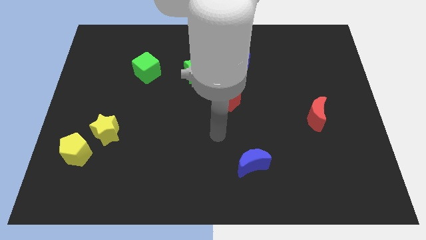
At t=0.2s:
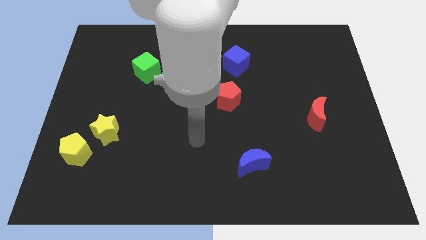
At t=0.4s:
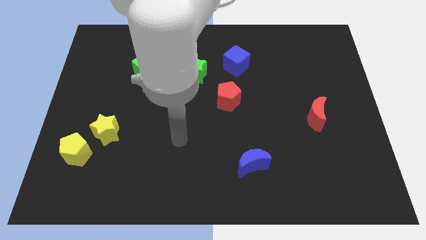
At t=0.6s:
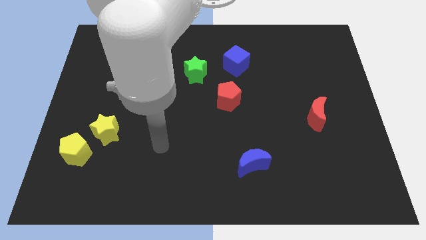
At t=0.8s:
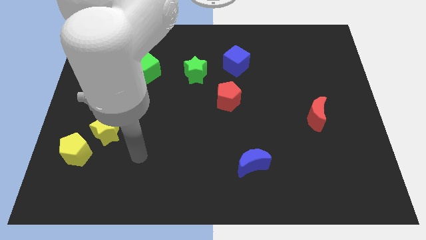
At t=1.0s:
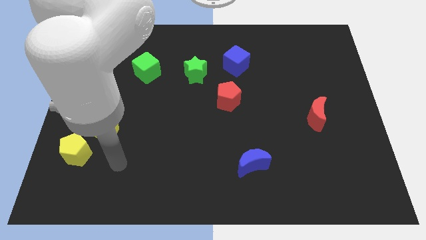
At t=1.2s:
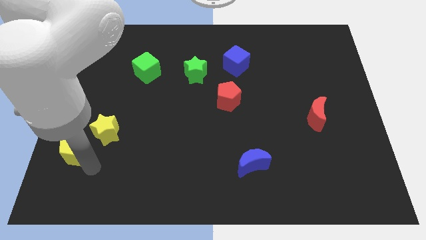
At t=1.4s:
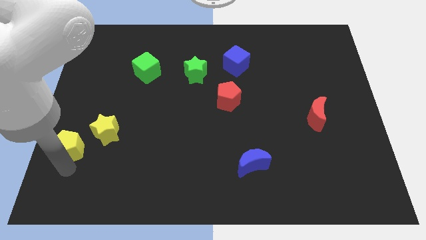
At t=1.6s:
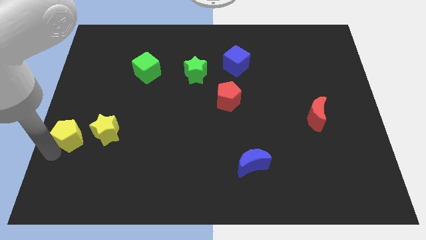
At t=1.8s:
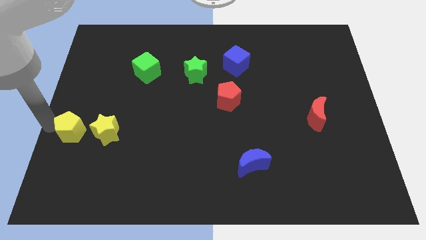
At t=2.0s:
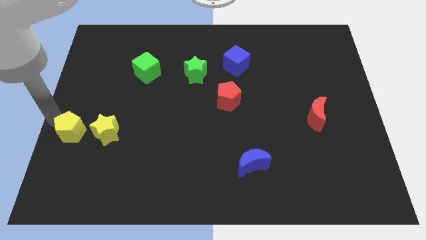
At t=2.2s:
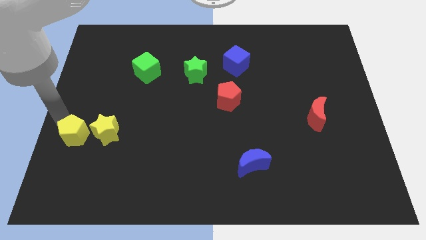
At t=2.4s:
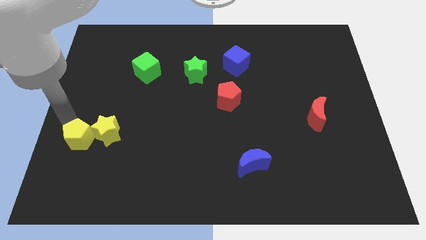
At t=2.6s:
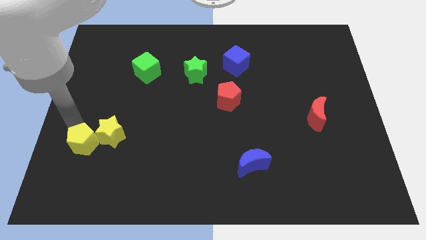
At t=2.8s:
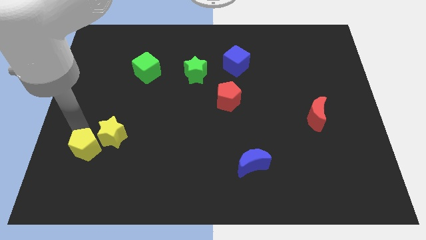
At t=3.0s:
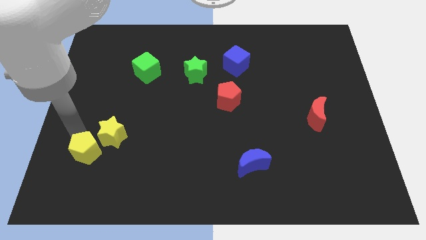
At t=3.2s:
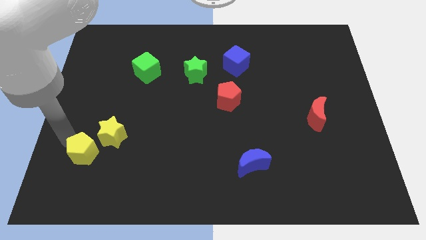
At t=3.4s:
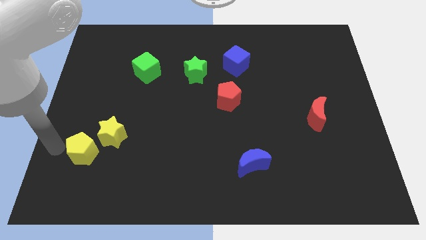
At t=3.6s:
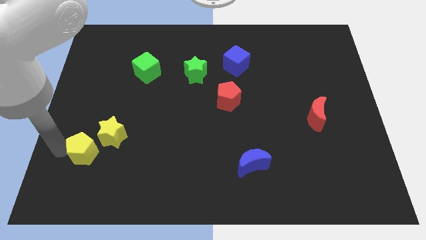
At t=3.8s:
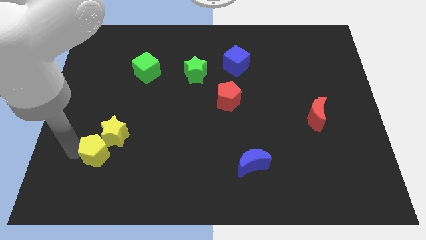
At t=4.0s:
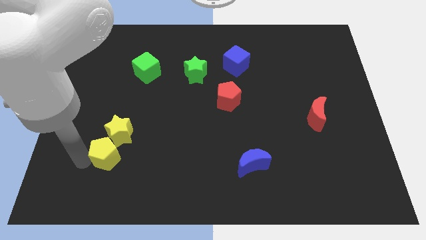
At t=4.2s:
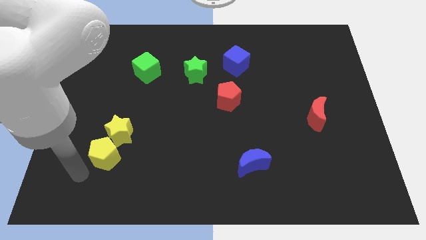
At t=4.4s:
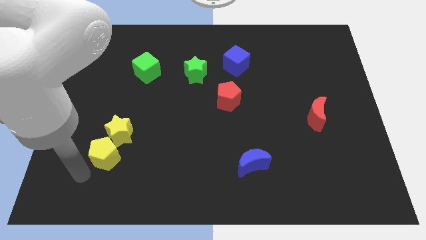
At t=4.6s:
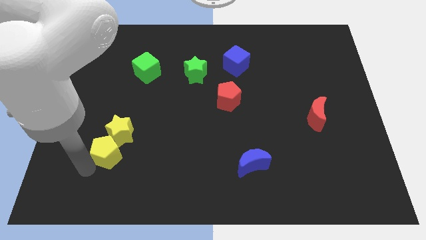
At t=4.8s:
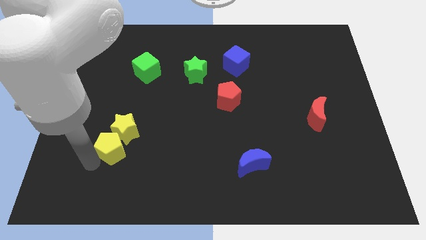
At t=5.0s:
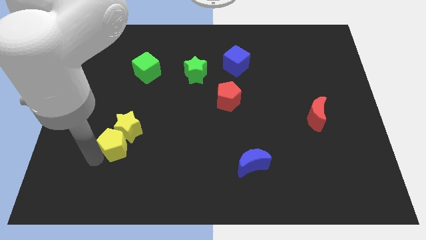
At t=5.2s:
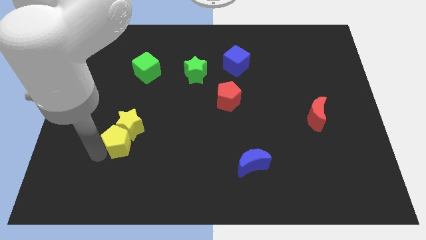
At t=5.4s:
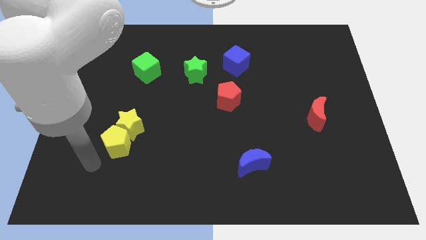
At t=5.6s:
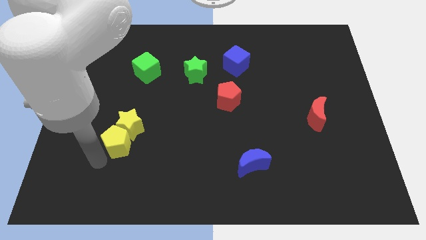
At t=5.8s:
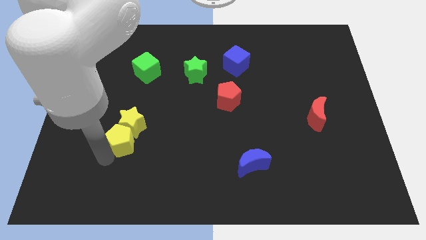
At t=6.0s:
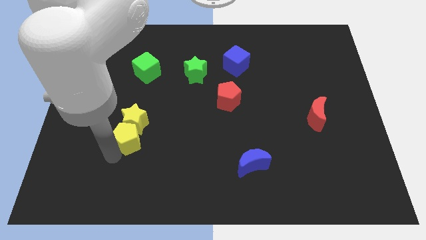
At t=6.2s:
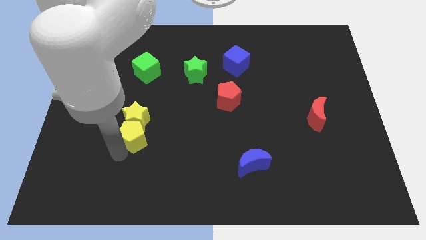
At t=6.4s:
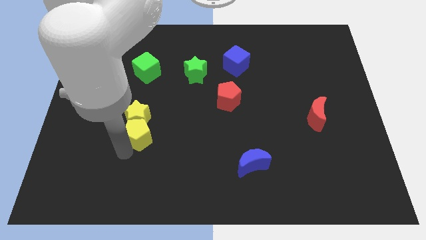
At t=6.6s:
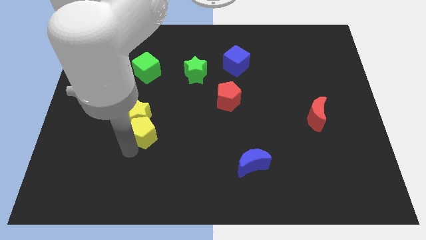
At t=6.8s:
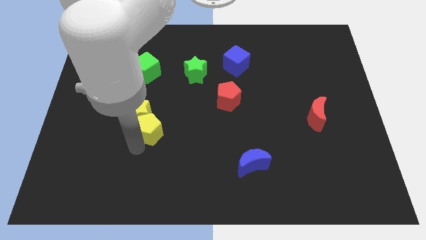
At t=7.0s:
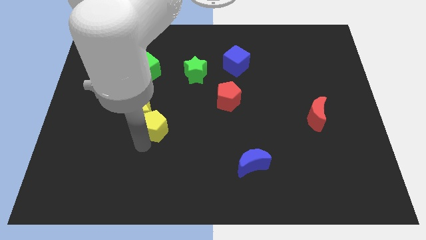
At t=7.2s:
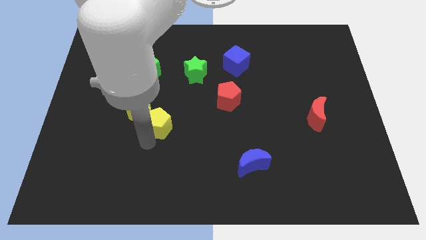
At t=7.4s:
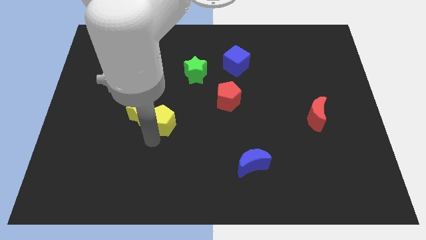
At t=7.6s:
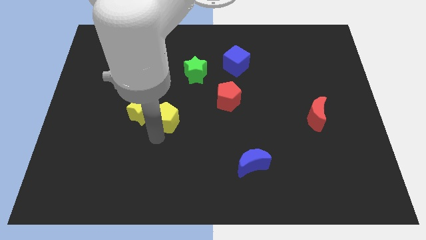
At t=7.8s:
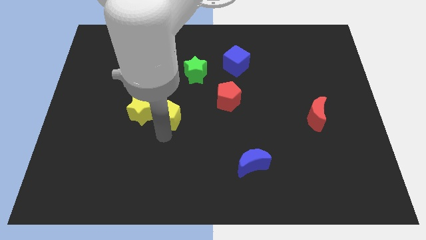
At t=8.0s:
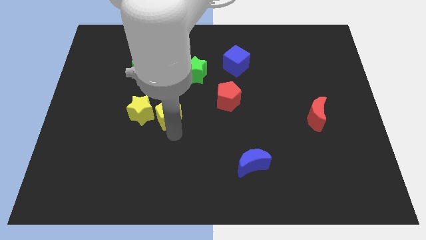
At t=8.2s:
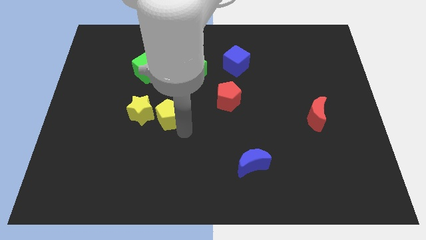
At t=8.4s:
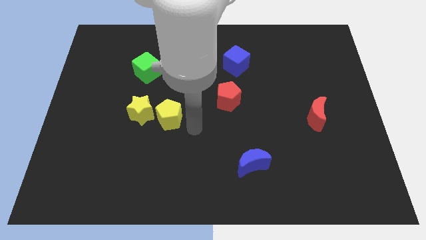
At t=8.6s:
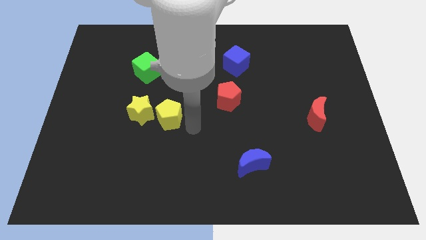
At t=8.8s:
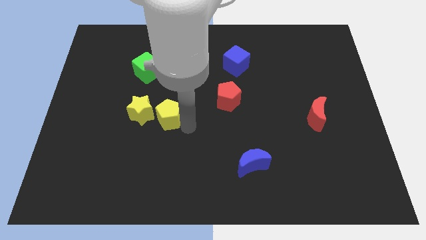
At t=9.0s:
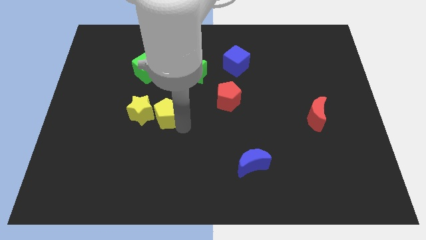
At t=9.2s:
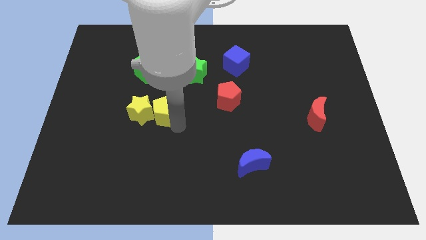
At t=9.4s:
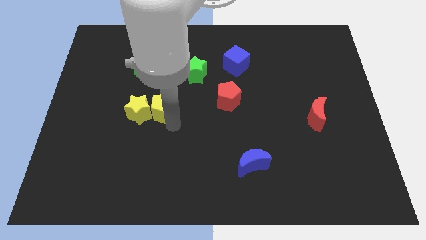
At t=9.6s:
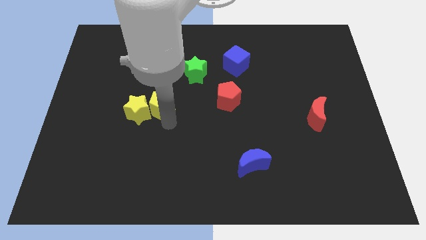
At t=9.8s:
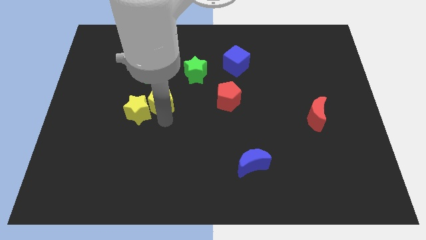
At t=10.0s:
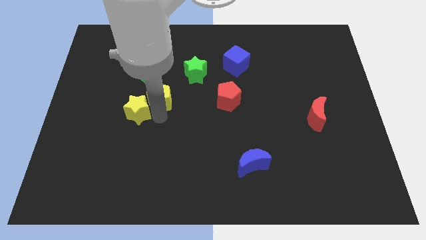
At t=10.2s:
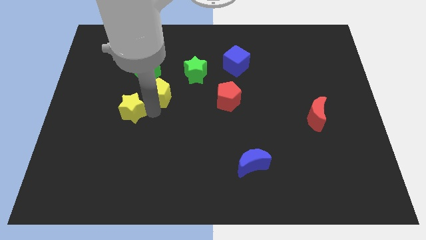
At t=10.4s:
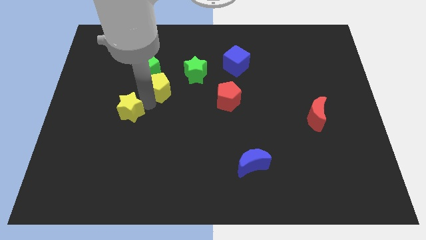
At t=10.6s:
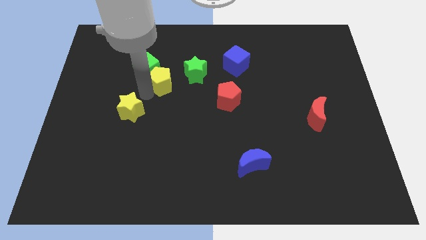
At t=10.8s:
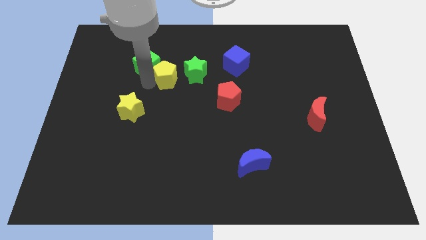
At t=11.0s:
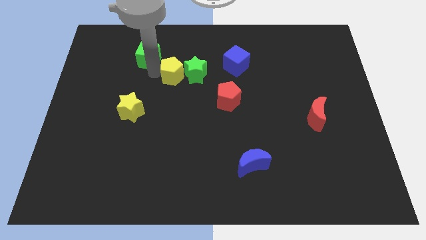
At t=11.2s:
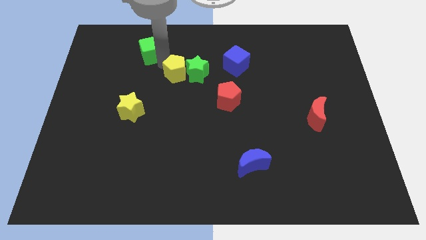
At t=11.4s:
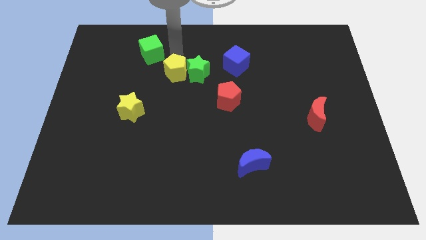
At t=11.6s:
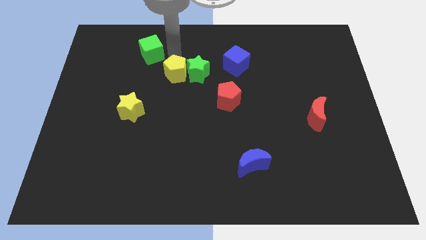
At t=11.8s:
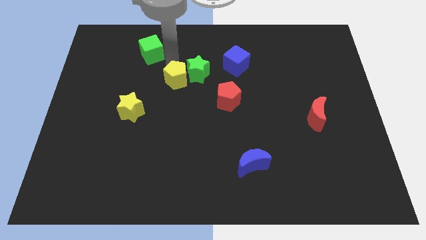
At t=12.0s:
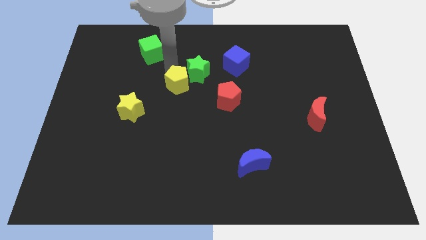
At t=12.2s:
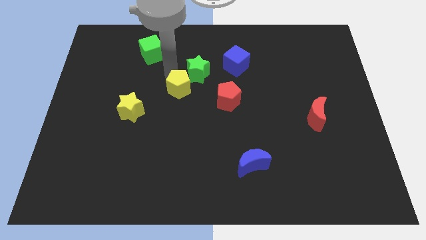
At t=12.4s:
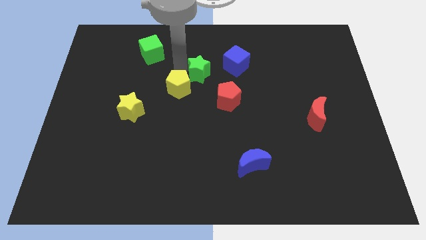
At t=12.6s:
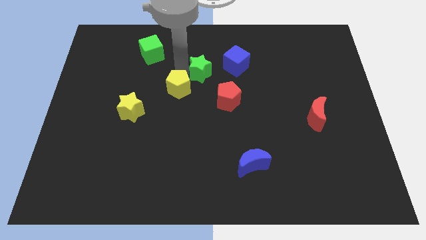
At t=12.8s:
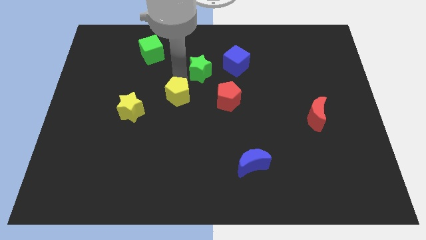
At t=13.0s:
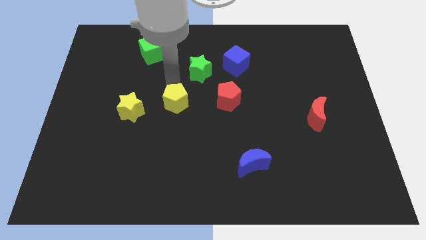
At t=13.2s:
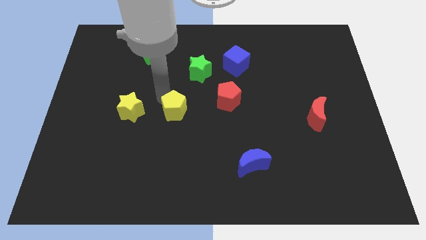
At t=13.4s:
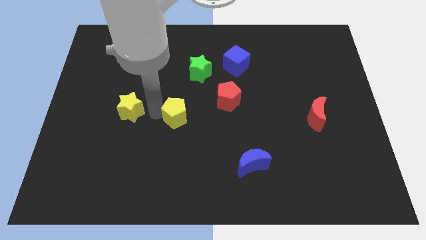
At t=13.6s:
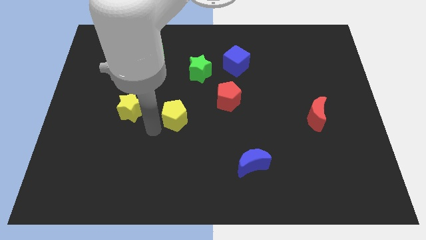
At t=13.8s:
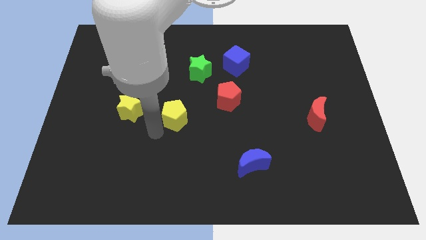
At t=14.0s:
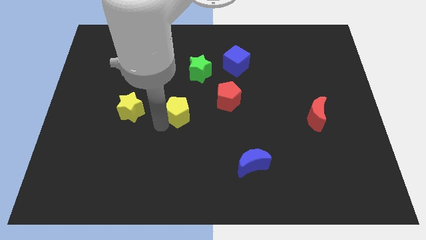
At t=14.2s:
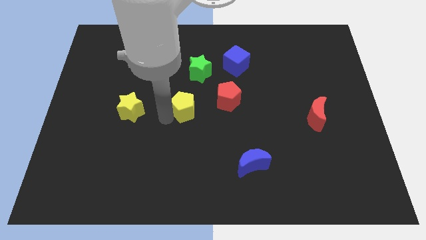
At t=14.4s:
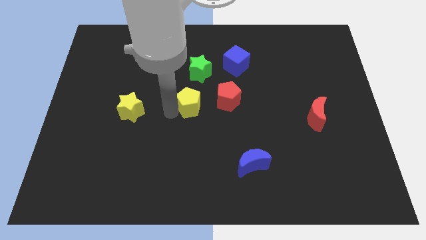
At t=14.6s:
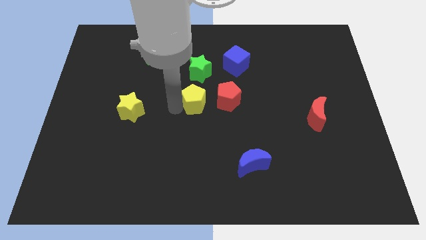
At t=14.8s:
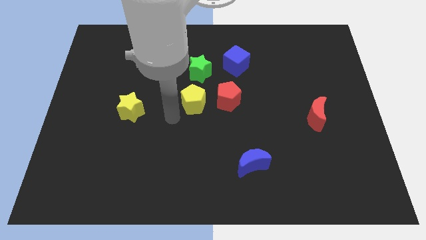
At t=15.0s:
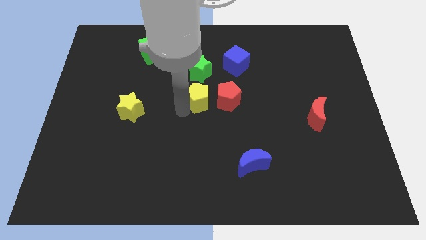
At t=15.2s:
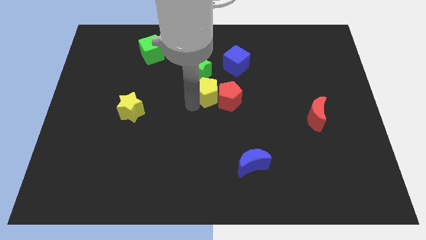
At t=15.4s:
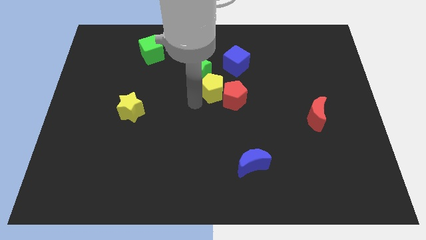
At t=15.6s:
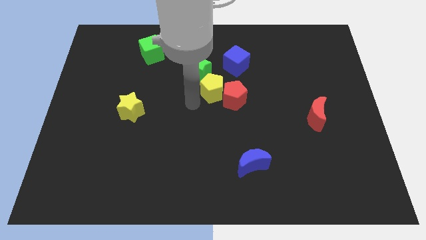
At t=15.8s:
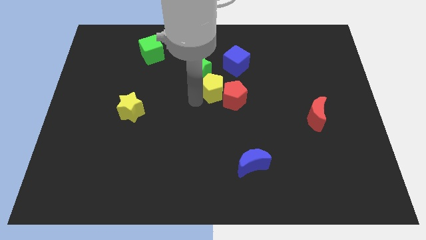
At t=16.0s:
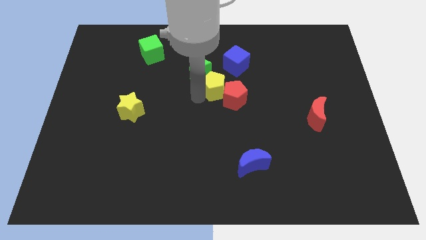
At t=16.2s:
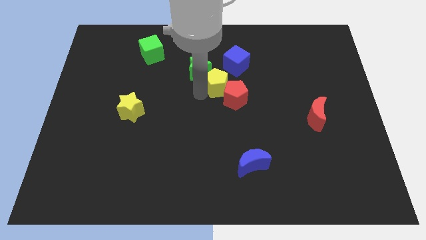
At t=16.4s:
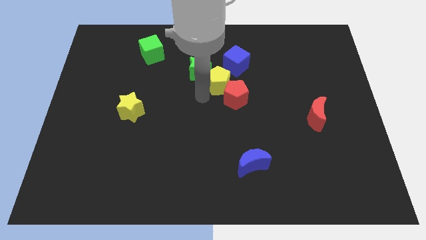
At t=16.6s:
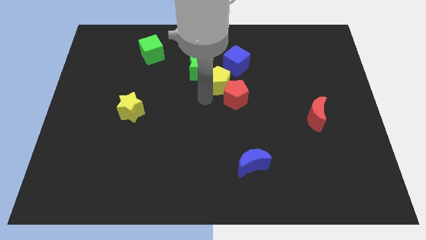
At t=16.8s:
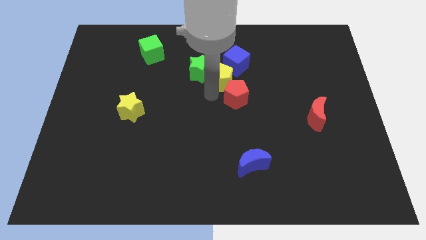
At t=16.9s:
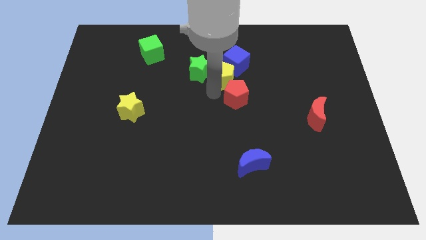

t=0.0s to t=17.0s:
slide the yellow pentagon towards the blue cube
